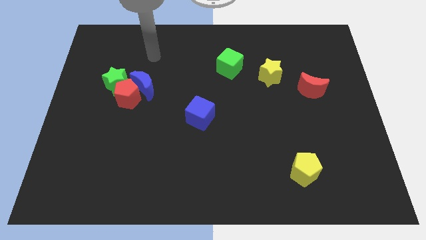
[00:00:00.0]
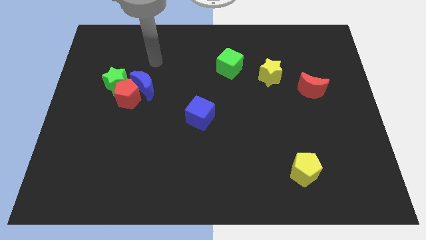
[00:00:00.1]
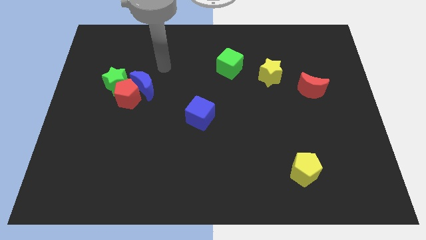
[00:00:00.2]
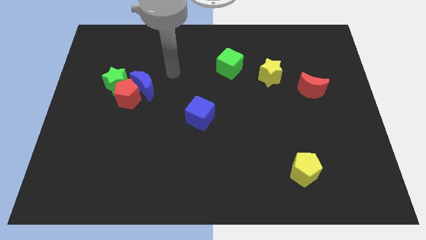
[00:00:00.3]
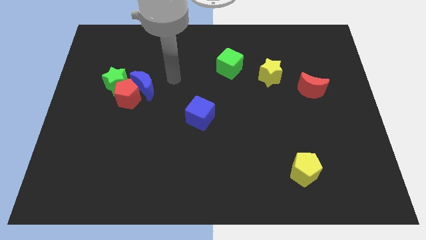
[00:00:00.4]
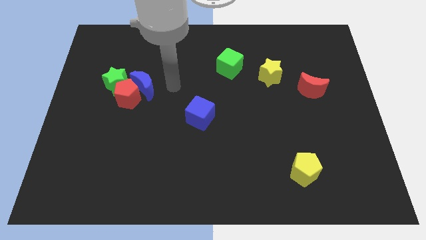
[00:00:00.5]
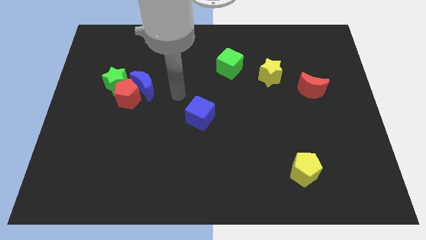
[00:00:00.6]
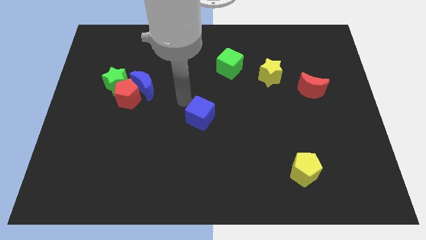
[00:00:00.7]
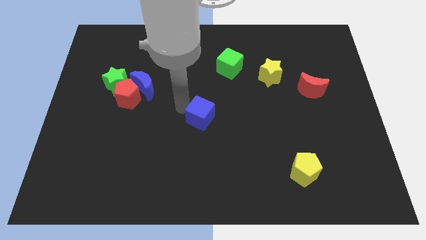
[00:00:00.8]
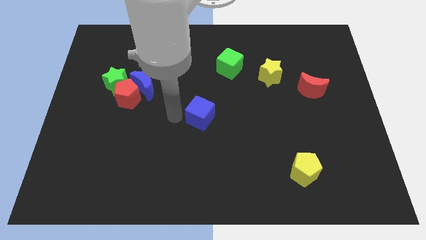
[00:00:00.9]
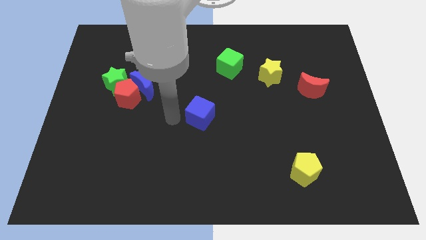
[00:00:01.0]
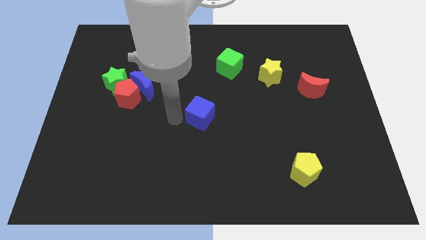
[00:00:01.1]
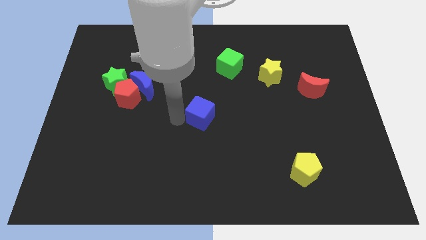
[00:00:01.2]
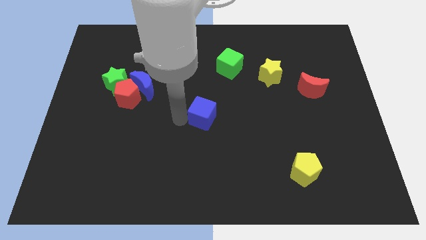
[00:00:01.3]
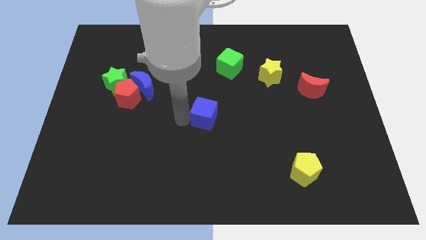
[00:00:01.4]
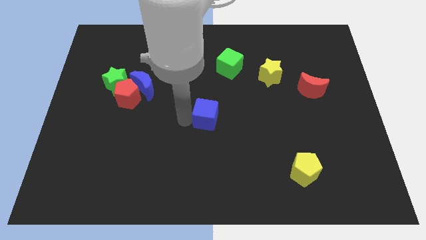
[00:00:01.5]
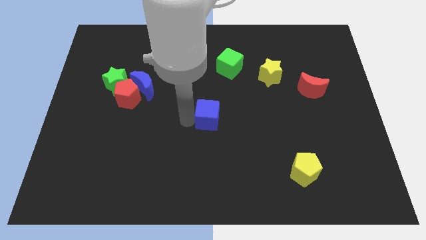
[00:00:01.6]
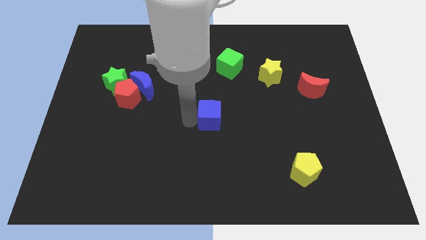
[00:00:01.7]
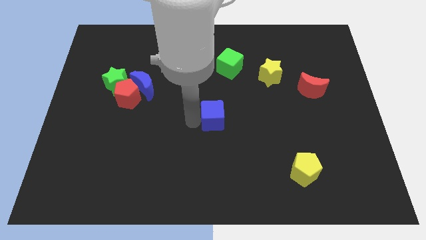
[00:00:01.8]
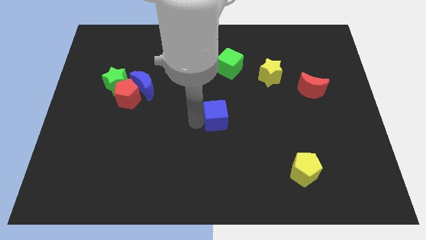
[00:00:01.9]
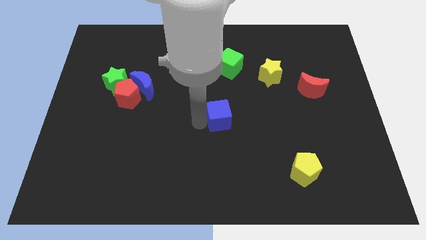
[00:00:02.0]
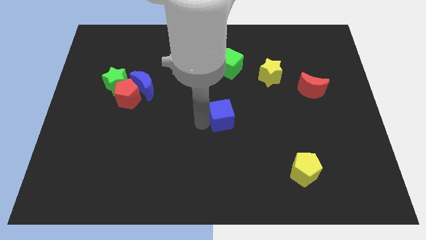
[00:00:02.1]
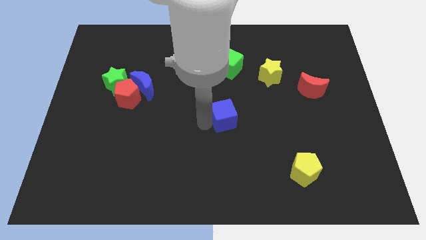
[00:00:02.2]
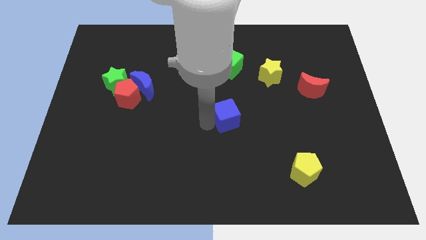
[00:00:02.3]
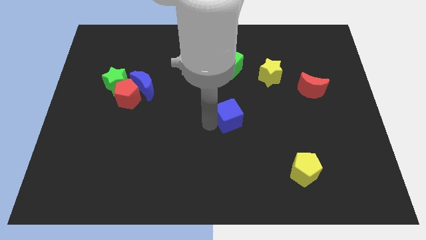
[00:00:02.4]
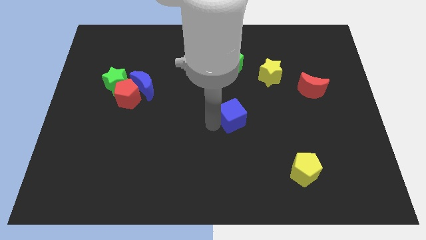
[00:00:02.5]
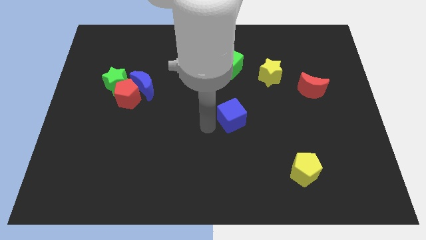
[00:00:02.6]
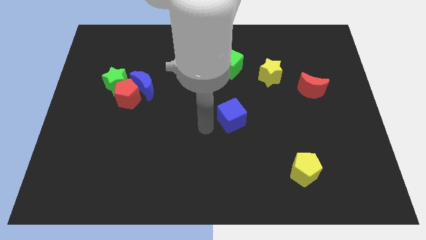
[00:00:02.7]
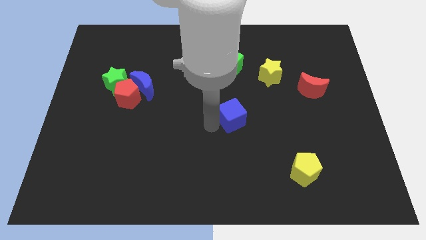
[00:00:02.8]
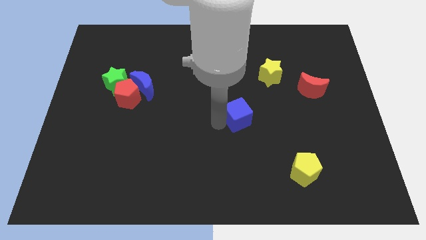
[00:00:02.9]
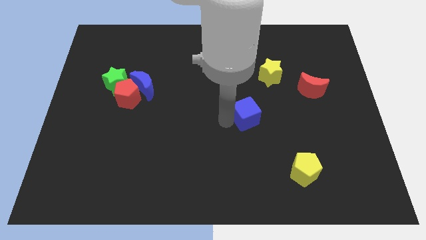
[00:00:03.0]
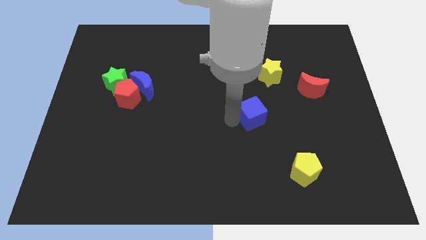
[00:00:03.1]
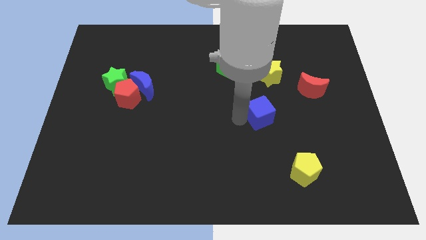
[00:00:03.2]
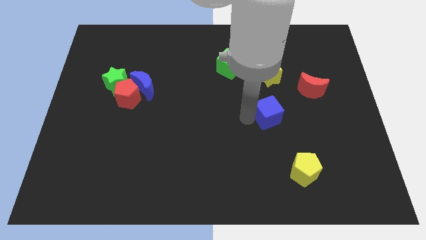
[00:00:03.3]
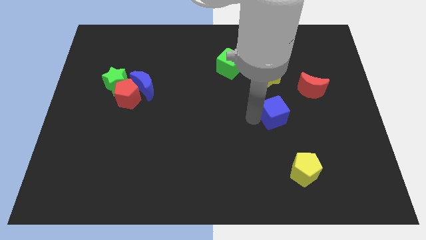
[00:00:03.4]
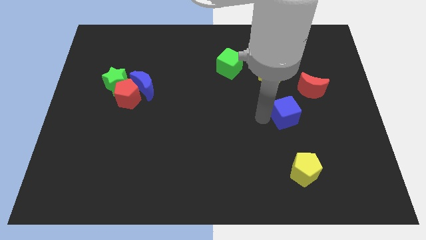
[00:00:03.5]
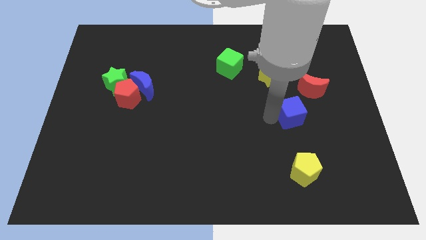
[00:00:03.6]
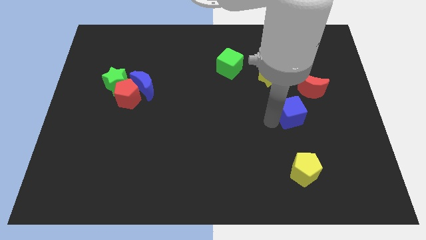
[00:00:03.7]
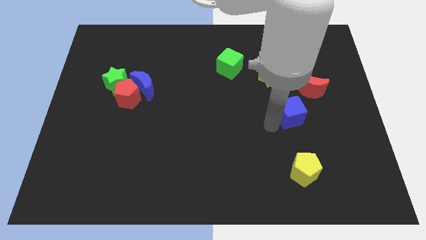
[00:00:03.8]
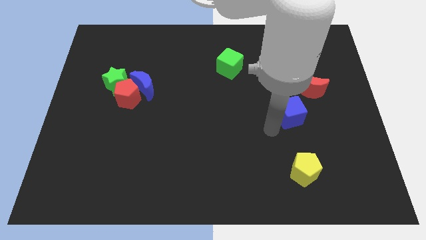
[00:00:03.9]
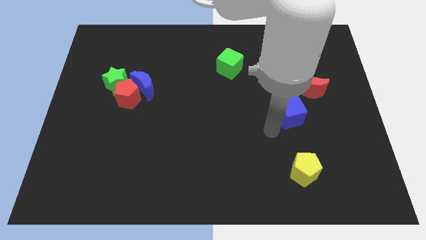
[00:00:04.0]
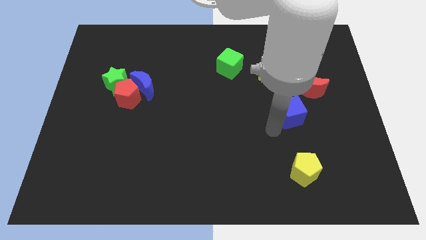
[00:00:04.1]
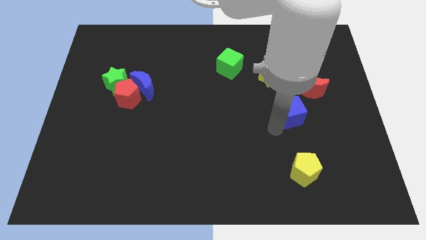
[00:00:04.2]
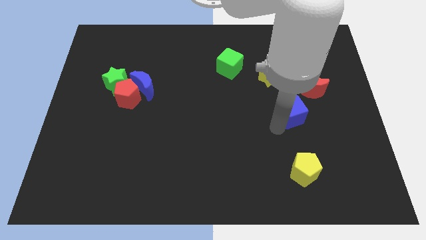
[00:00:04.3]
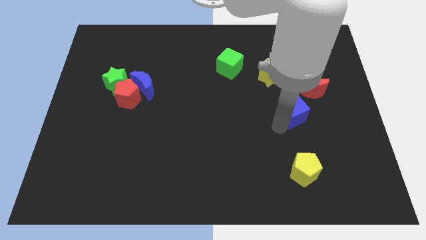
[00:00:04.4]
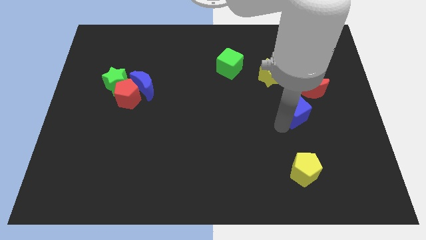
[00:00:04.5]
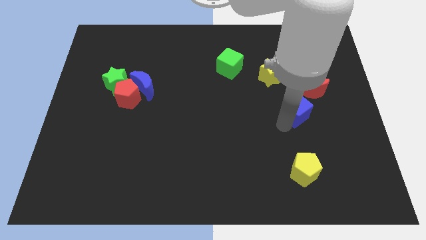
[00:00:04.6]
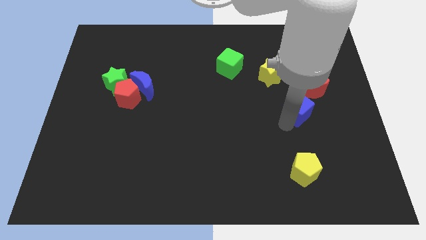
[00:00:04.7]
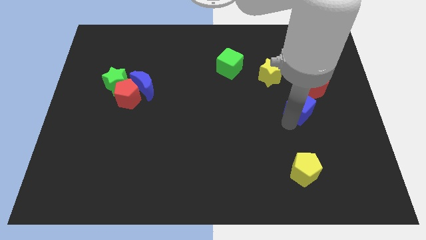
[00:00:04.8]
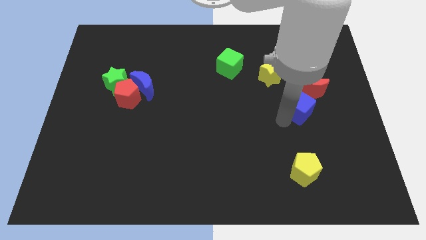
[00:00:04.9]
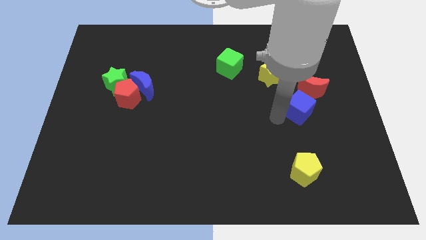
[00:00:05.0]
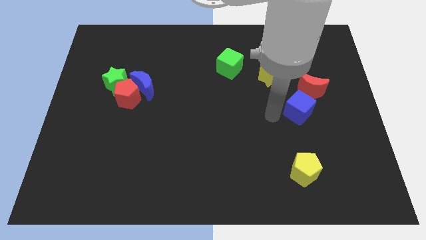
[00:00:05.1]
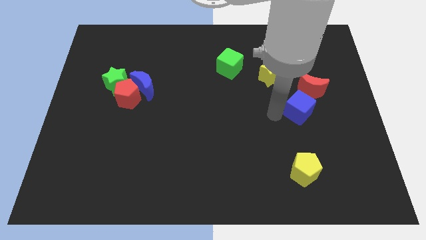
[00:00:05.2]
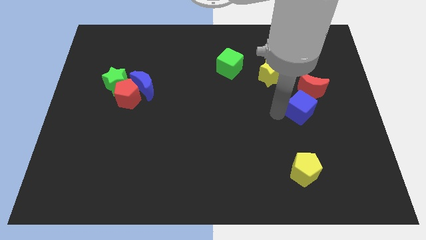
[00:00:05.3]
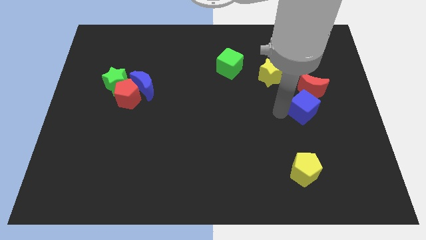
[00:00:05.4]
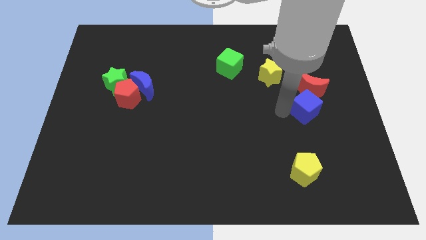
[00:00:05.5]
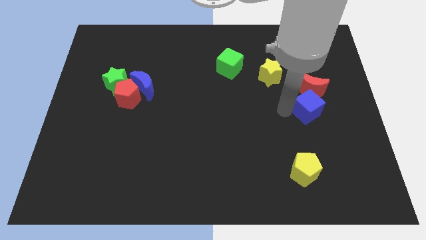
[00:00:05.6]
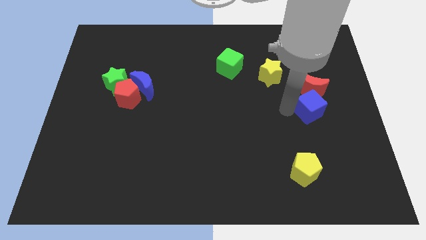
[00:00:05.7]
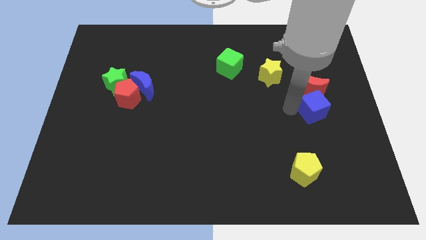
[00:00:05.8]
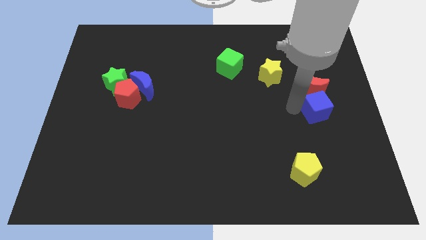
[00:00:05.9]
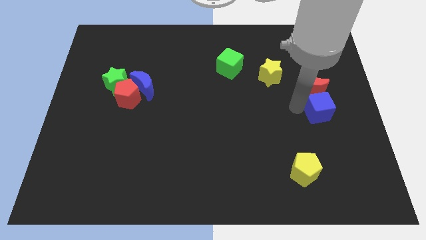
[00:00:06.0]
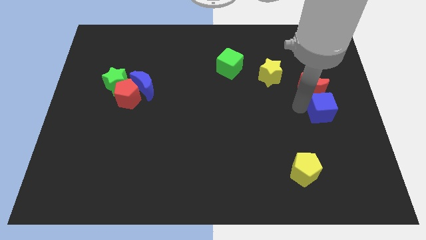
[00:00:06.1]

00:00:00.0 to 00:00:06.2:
push the blue cube to the center right
